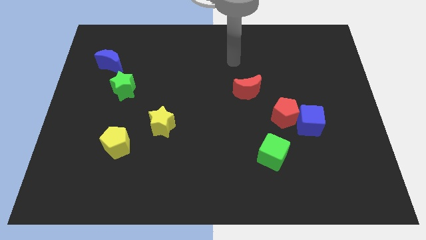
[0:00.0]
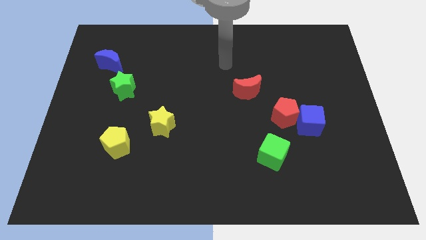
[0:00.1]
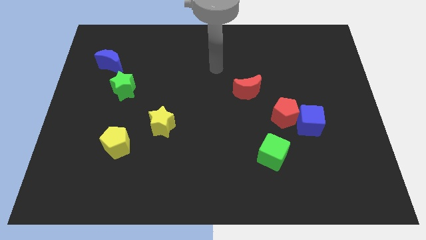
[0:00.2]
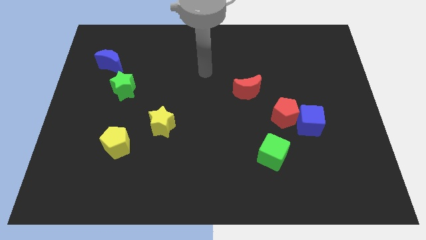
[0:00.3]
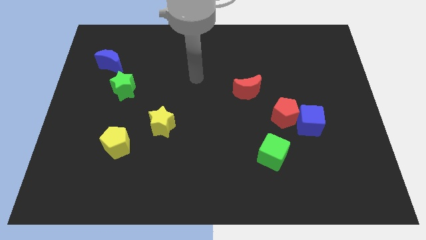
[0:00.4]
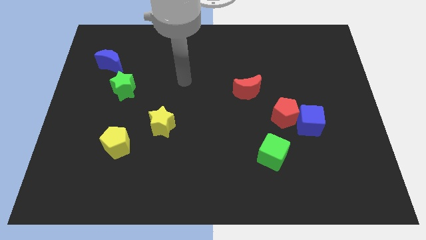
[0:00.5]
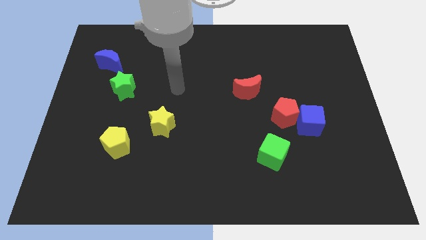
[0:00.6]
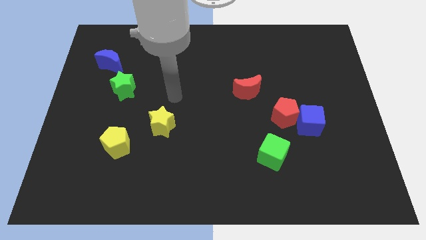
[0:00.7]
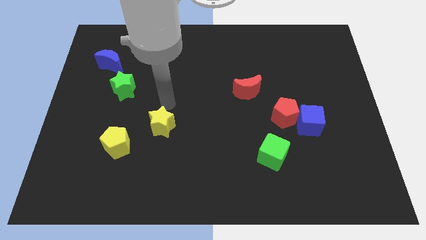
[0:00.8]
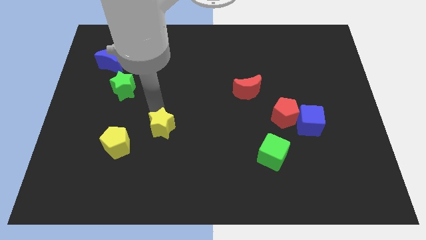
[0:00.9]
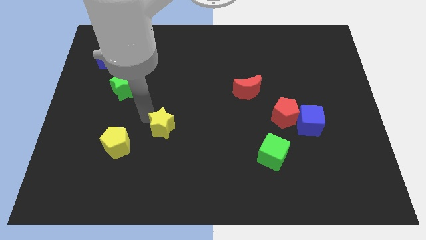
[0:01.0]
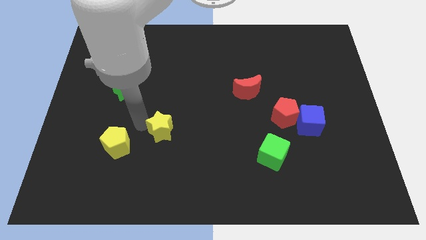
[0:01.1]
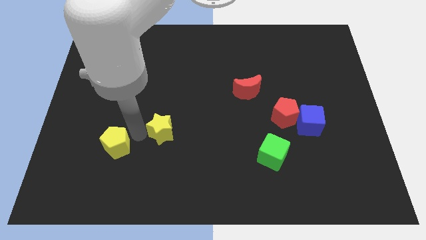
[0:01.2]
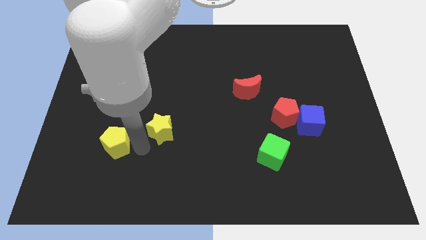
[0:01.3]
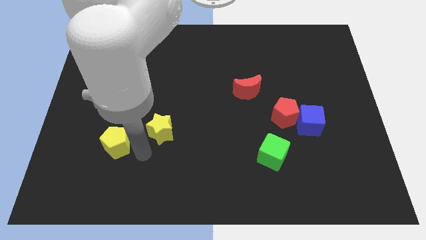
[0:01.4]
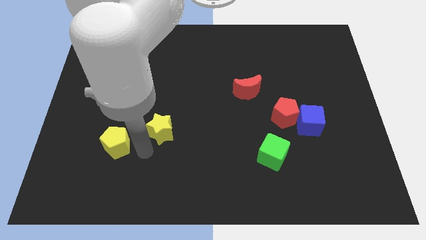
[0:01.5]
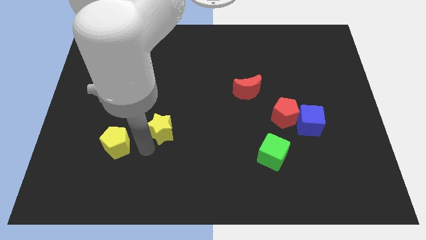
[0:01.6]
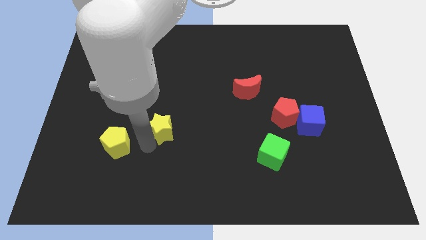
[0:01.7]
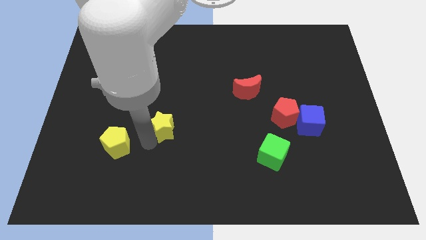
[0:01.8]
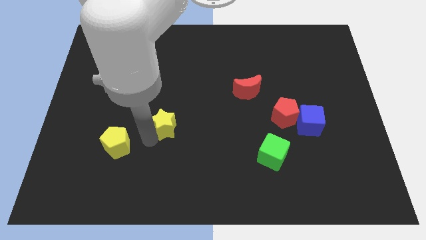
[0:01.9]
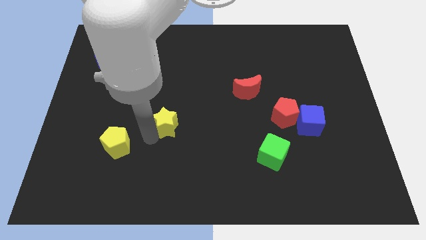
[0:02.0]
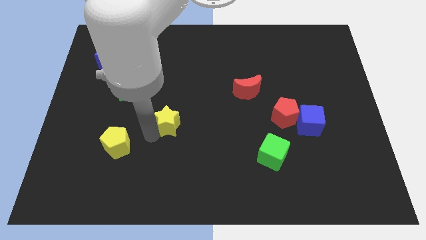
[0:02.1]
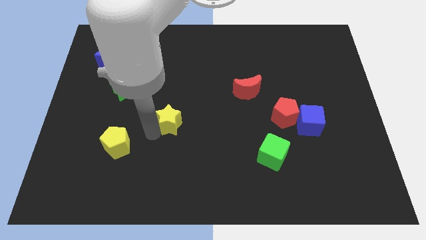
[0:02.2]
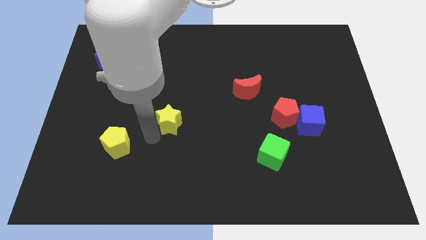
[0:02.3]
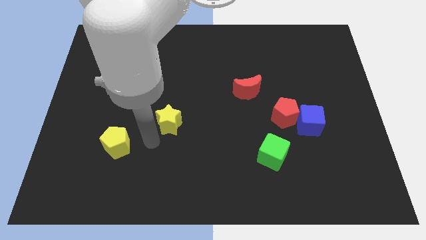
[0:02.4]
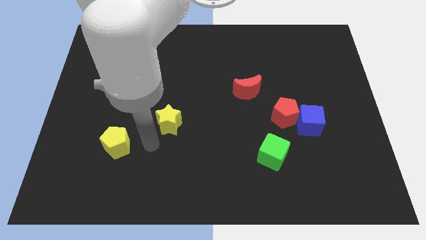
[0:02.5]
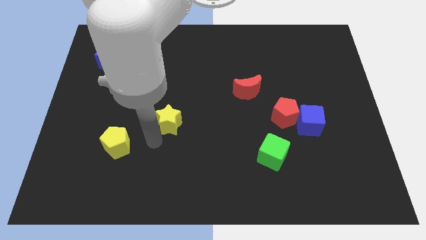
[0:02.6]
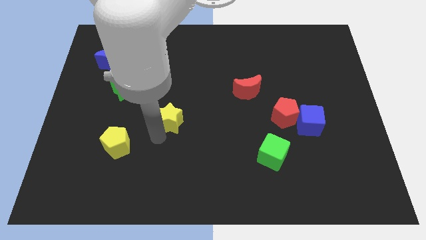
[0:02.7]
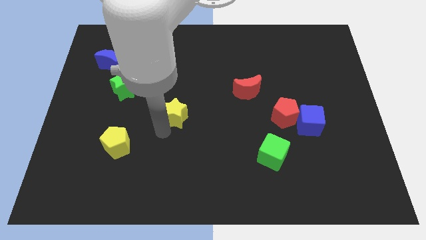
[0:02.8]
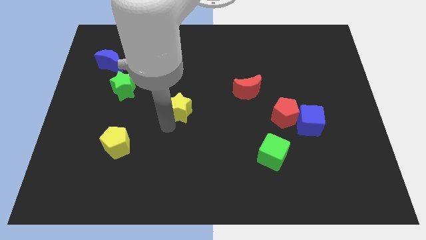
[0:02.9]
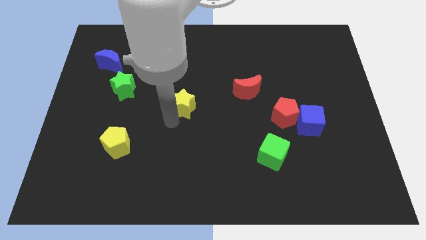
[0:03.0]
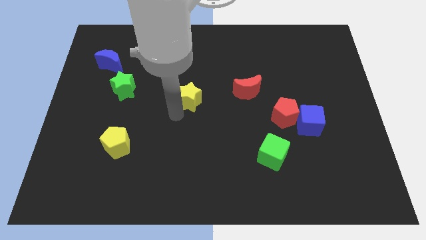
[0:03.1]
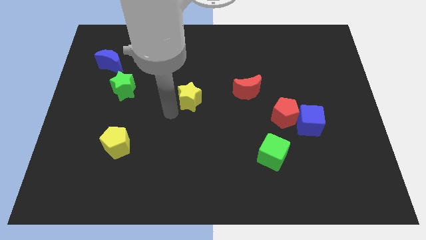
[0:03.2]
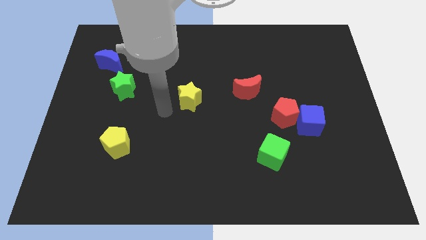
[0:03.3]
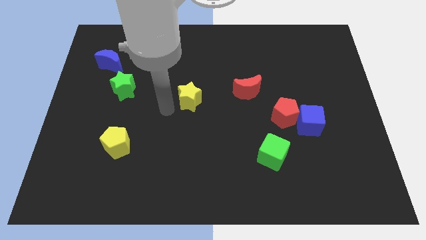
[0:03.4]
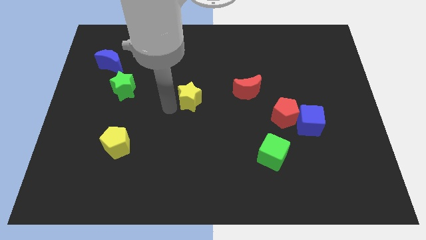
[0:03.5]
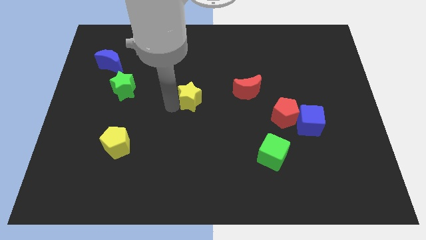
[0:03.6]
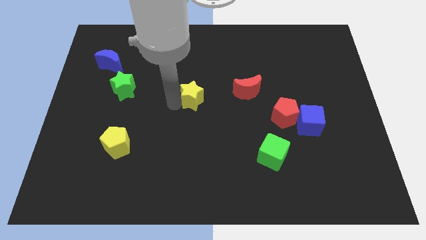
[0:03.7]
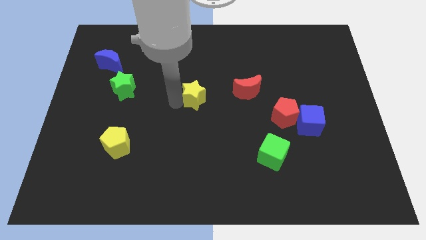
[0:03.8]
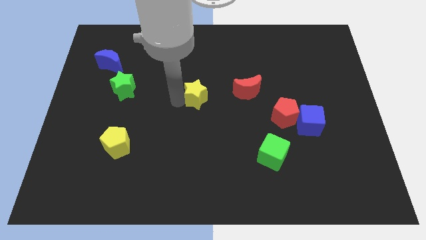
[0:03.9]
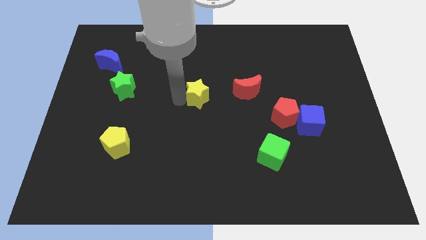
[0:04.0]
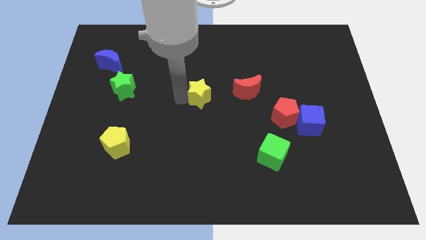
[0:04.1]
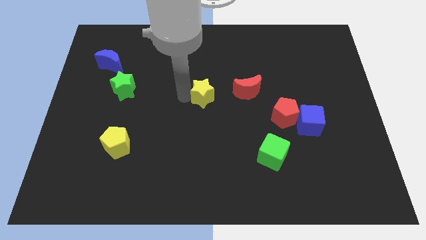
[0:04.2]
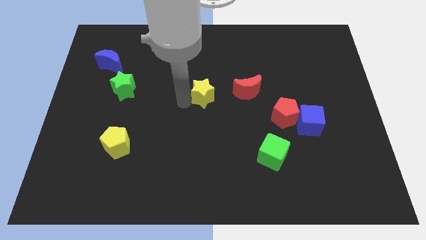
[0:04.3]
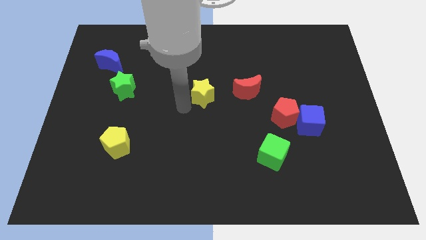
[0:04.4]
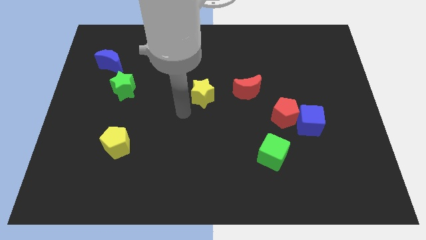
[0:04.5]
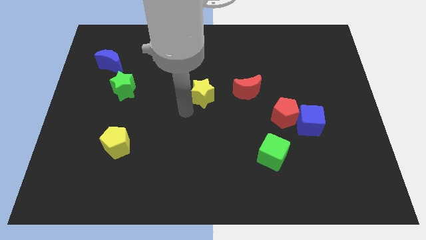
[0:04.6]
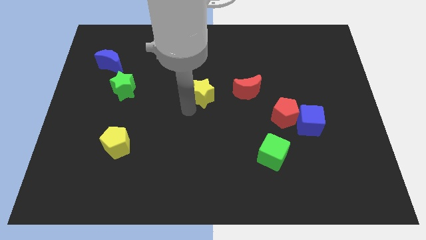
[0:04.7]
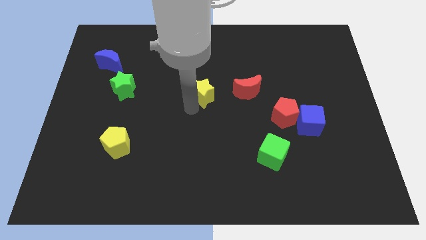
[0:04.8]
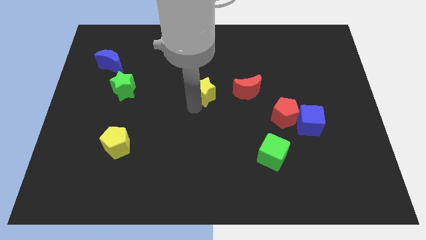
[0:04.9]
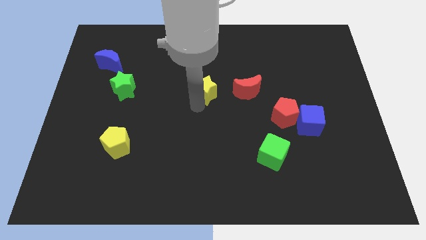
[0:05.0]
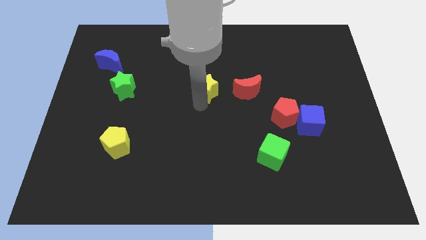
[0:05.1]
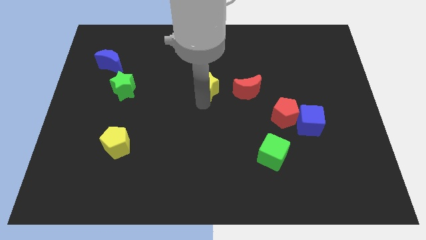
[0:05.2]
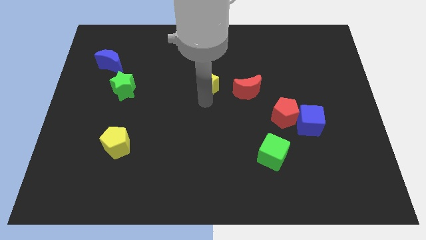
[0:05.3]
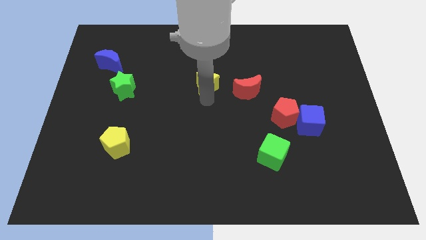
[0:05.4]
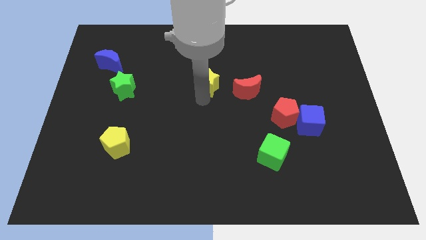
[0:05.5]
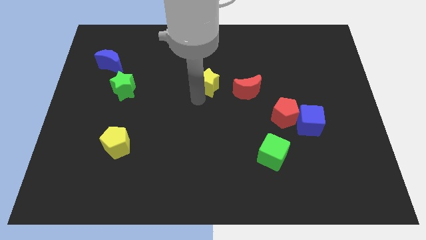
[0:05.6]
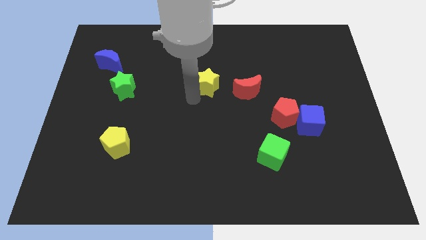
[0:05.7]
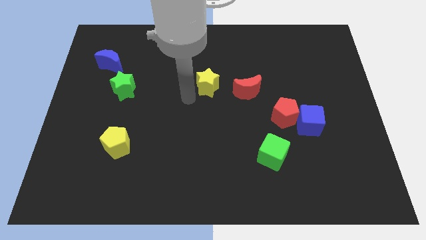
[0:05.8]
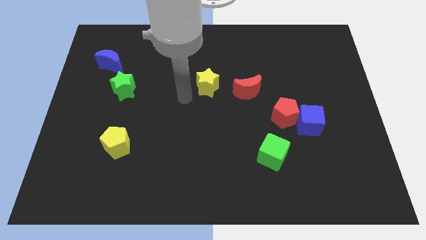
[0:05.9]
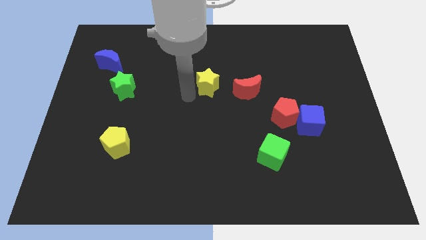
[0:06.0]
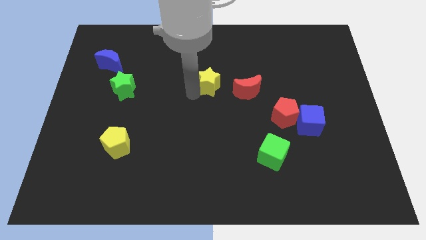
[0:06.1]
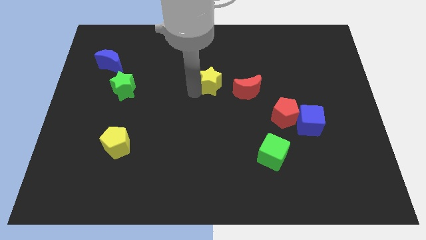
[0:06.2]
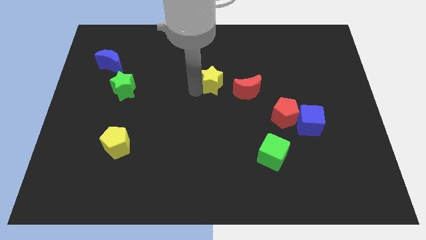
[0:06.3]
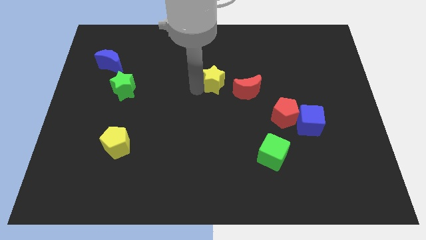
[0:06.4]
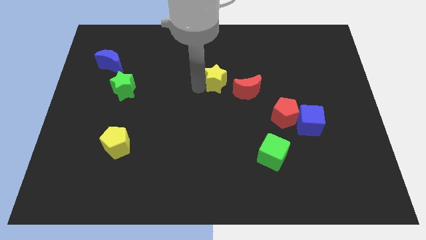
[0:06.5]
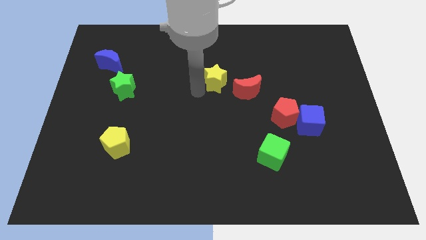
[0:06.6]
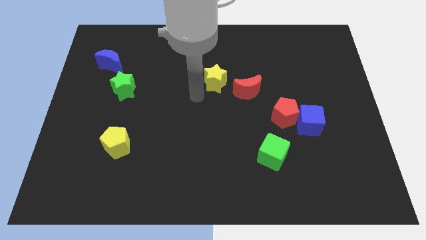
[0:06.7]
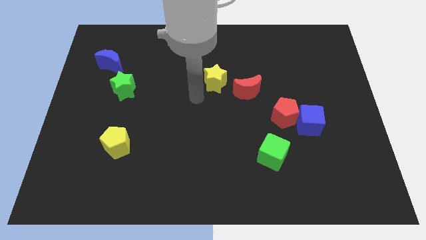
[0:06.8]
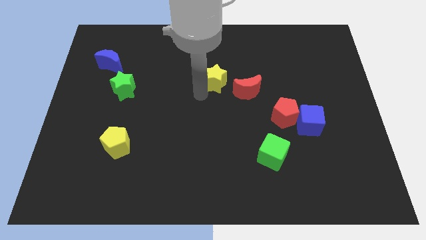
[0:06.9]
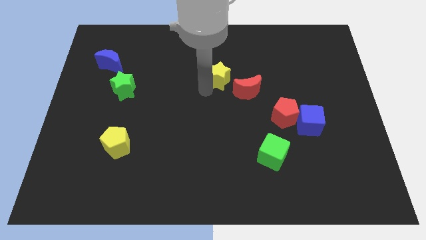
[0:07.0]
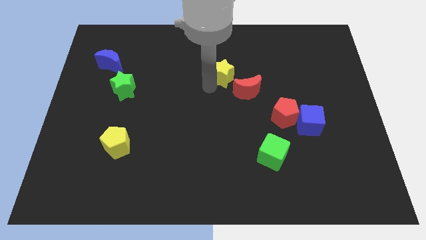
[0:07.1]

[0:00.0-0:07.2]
slide the yellow star diagonally up and to the right

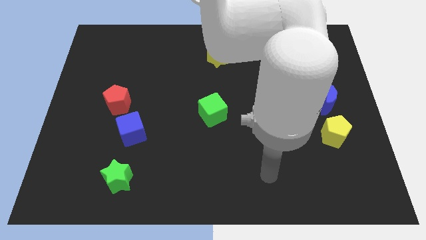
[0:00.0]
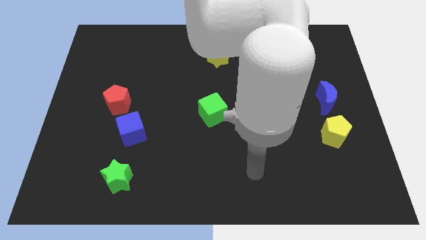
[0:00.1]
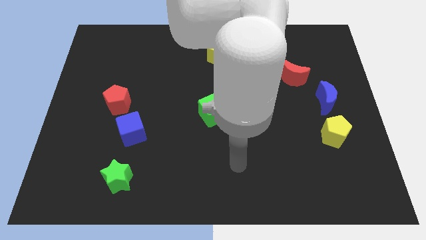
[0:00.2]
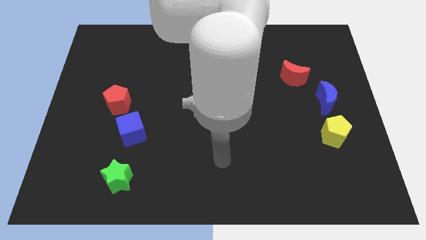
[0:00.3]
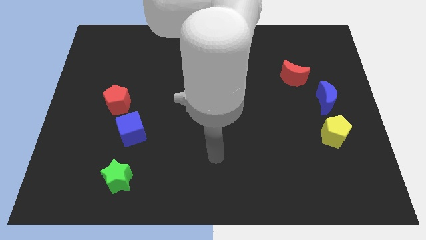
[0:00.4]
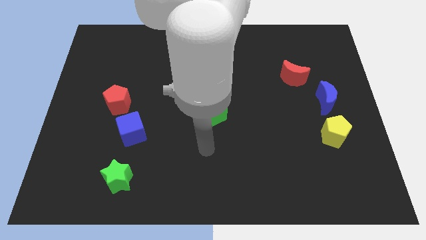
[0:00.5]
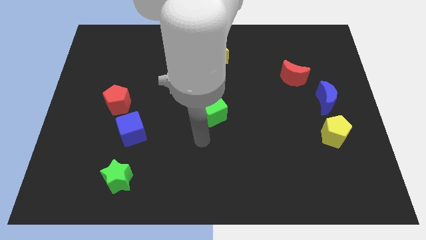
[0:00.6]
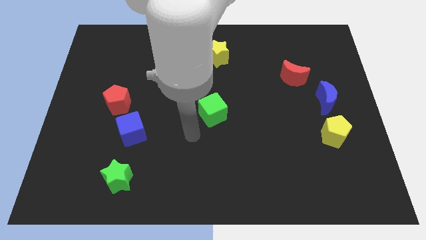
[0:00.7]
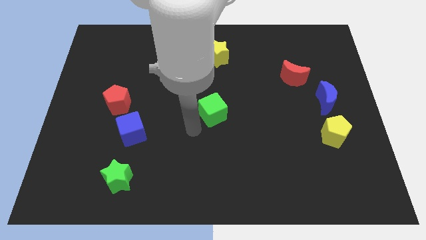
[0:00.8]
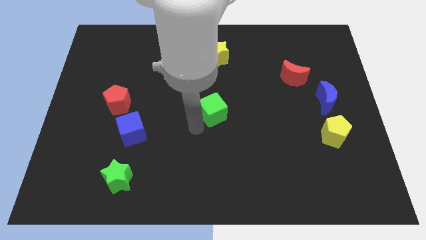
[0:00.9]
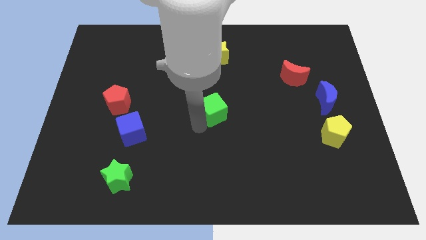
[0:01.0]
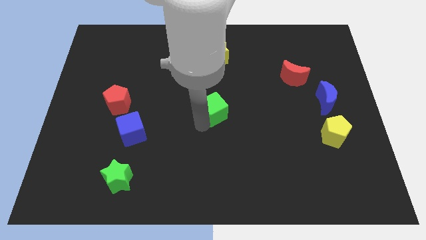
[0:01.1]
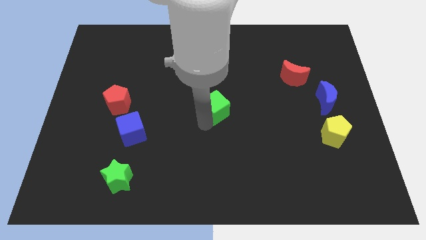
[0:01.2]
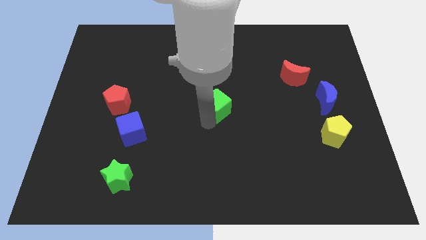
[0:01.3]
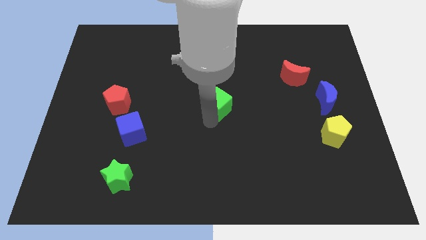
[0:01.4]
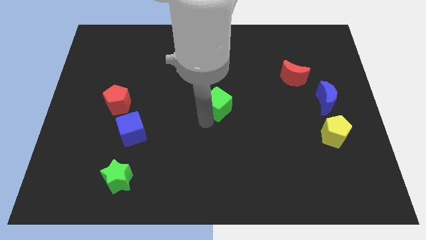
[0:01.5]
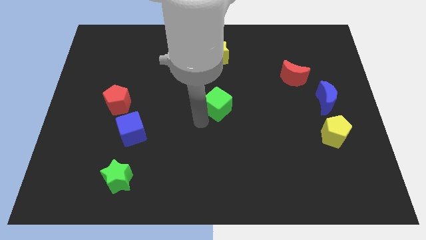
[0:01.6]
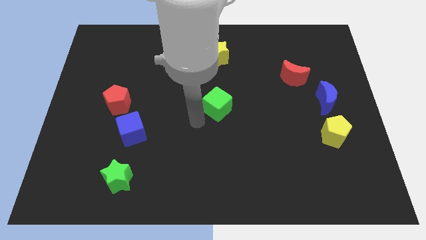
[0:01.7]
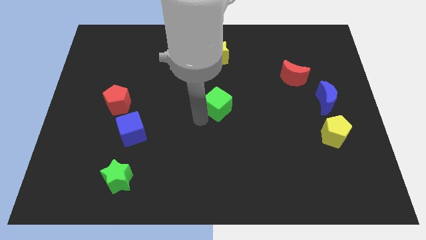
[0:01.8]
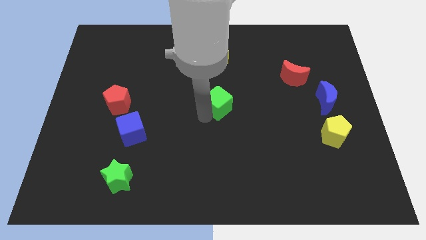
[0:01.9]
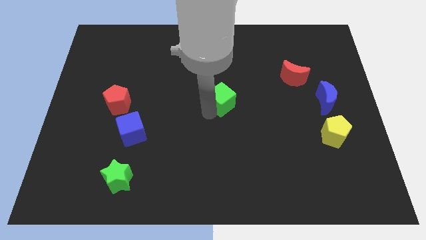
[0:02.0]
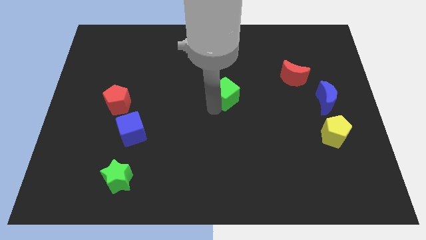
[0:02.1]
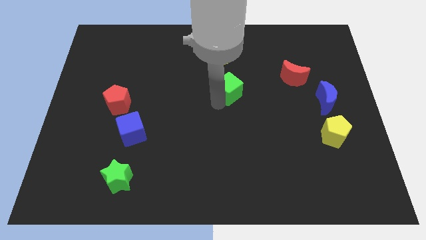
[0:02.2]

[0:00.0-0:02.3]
slide the green cube slightly up and to the right
